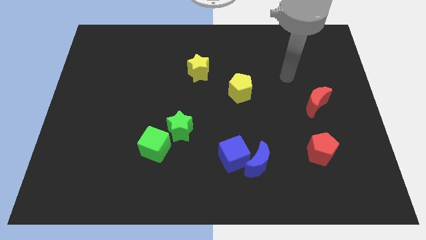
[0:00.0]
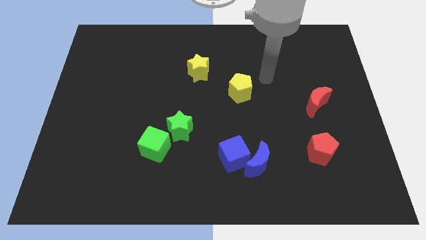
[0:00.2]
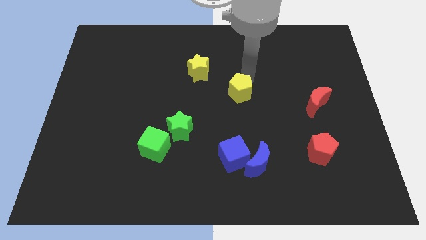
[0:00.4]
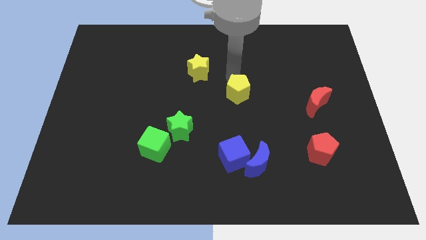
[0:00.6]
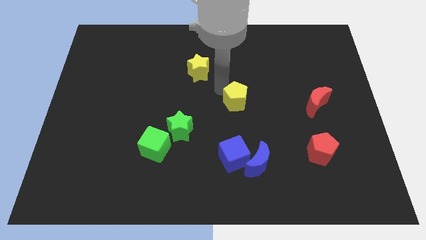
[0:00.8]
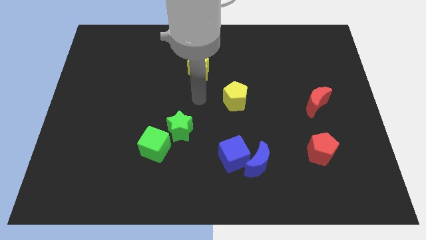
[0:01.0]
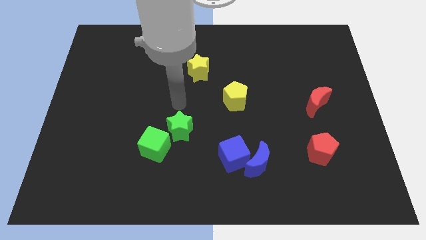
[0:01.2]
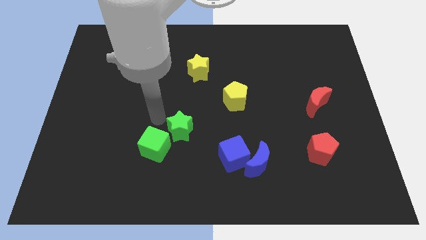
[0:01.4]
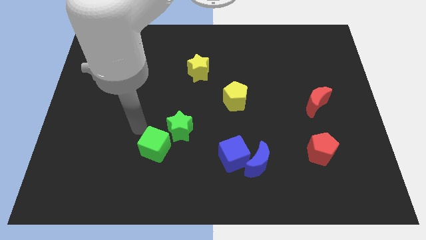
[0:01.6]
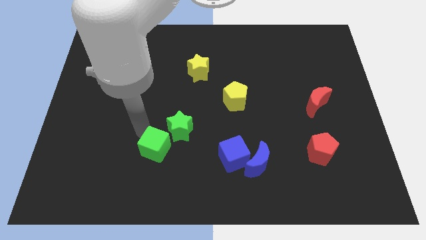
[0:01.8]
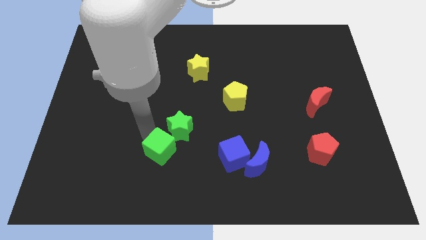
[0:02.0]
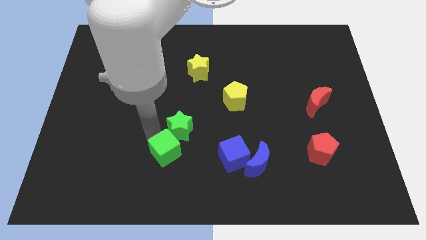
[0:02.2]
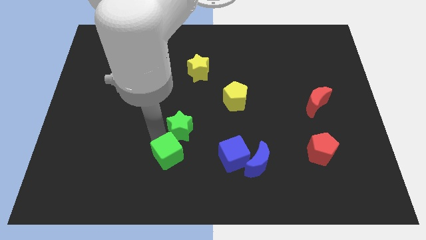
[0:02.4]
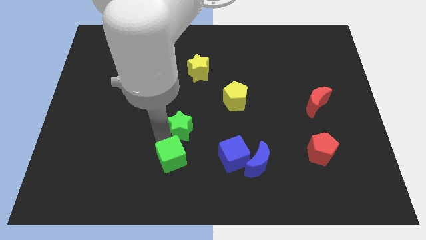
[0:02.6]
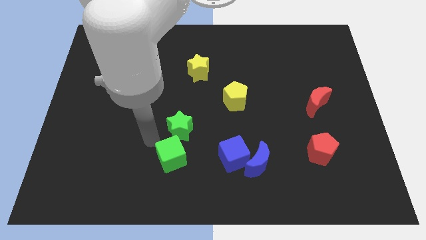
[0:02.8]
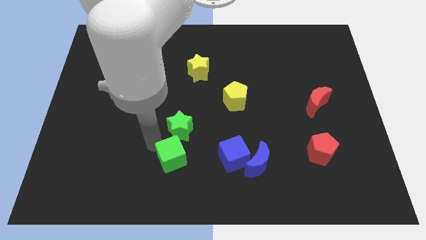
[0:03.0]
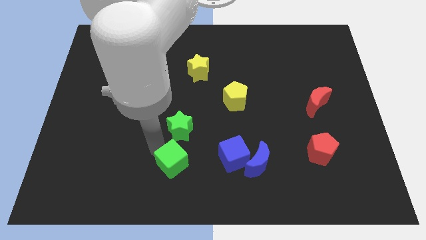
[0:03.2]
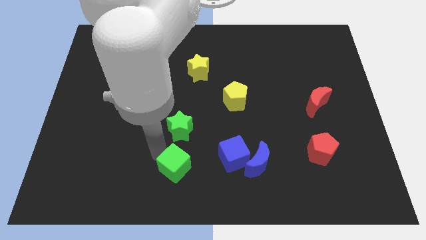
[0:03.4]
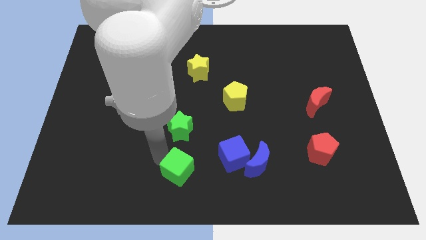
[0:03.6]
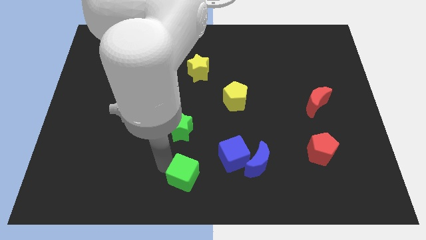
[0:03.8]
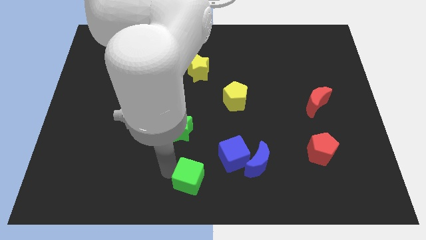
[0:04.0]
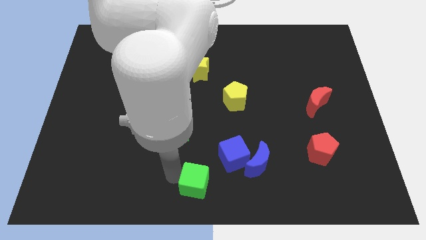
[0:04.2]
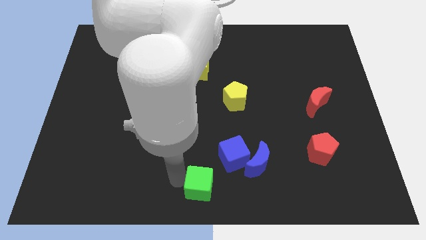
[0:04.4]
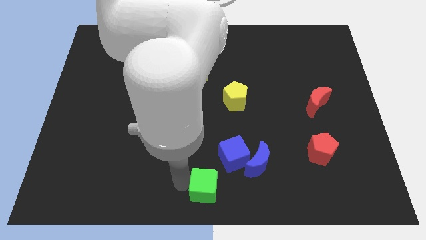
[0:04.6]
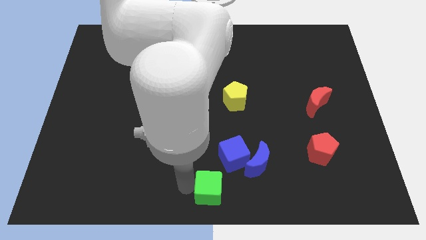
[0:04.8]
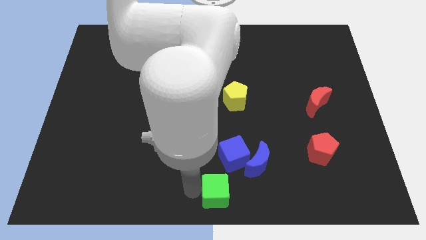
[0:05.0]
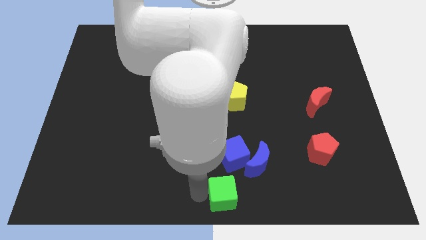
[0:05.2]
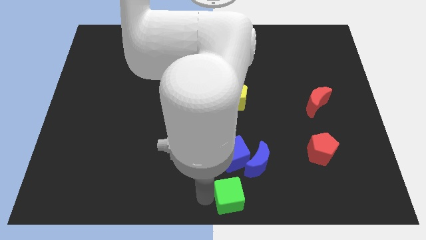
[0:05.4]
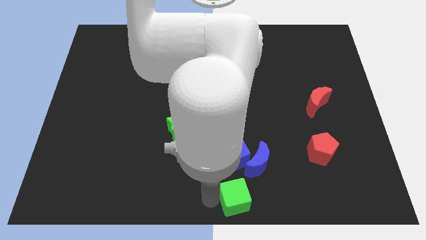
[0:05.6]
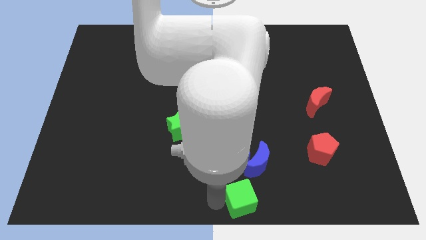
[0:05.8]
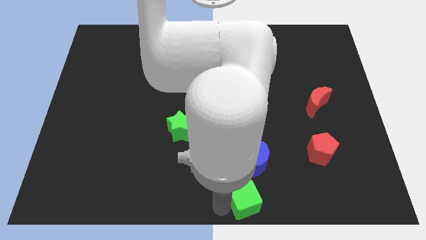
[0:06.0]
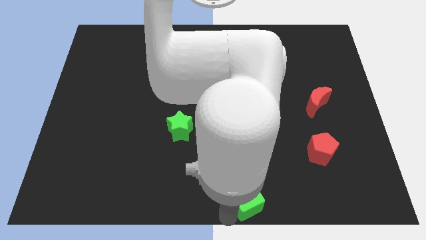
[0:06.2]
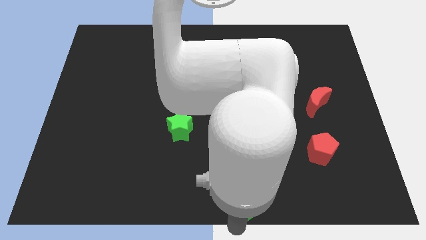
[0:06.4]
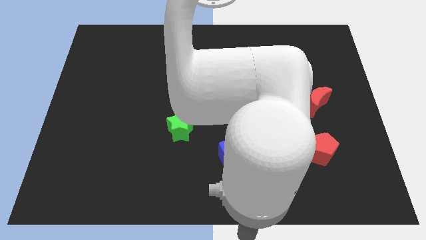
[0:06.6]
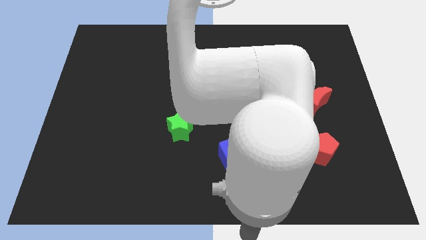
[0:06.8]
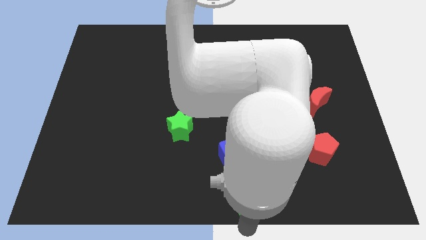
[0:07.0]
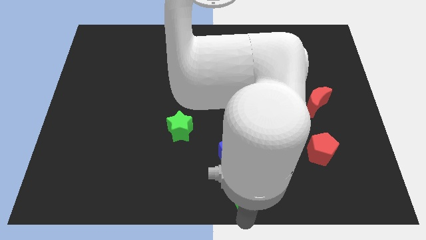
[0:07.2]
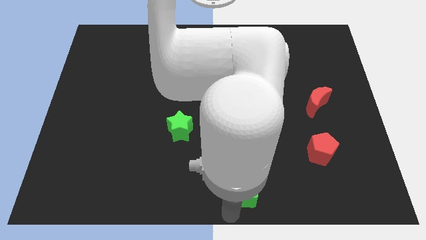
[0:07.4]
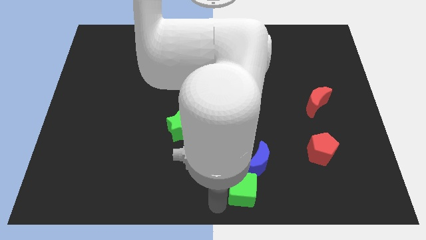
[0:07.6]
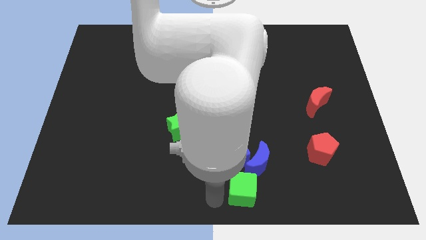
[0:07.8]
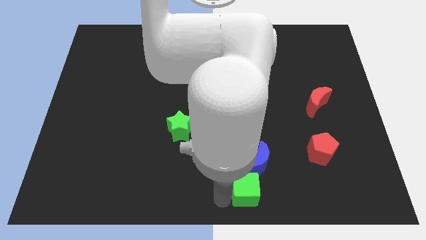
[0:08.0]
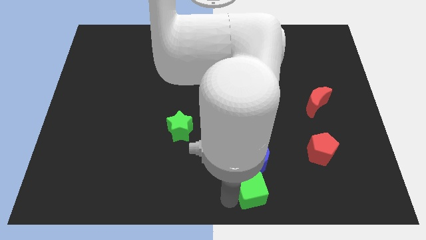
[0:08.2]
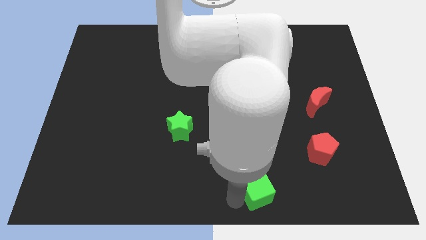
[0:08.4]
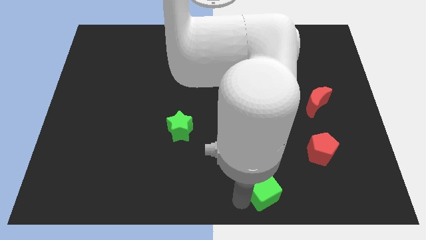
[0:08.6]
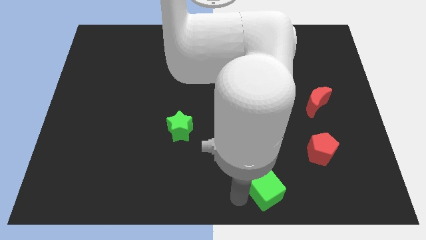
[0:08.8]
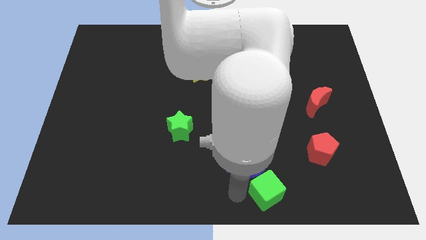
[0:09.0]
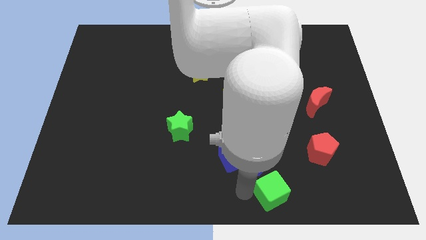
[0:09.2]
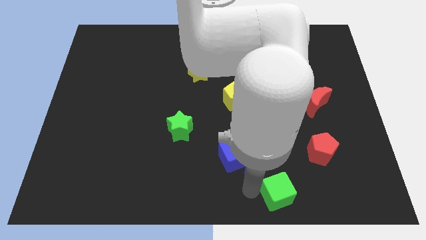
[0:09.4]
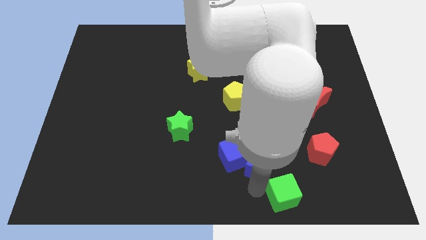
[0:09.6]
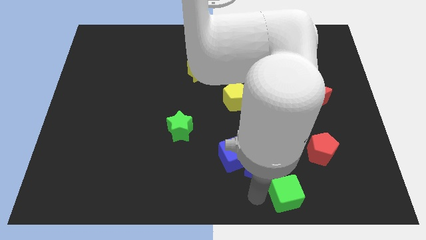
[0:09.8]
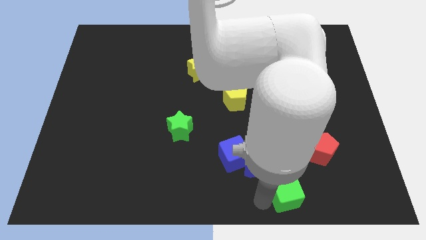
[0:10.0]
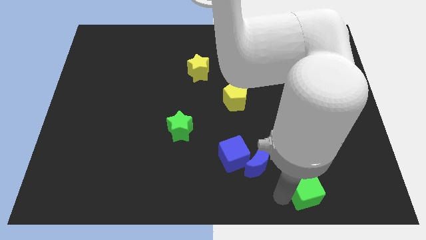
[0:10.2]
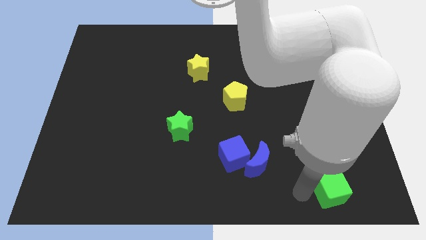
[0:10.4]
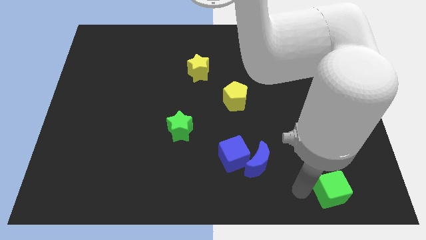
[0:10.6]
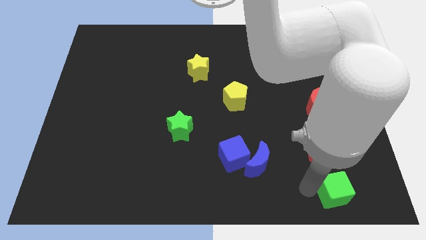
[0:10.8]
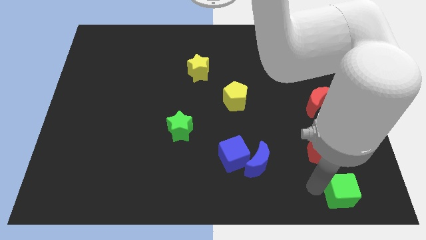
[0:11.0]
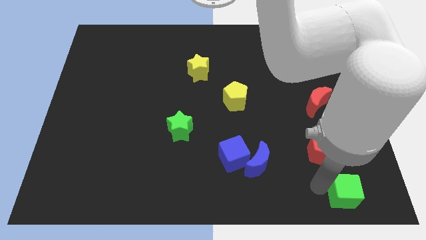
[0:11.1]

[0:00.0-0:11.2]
move the green cube to the bottom right

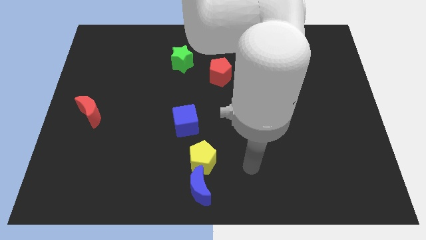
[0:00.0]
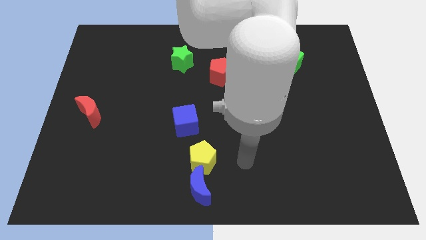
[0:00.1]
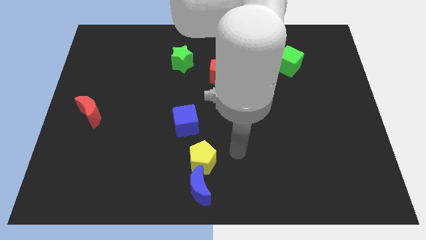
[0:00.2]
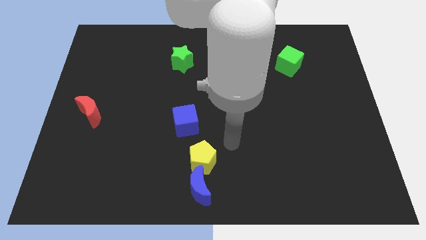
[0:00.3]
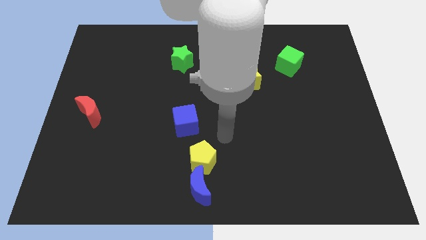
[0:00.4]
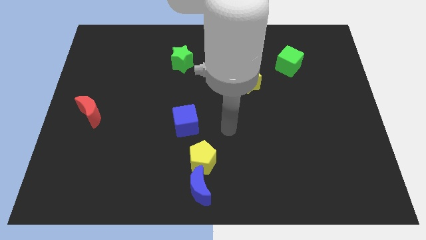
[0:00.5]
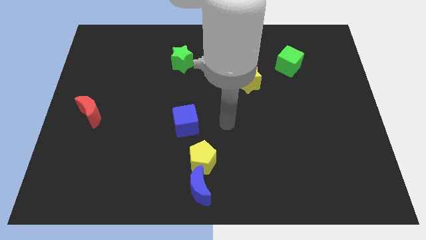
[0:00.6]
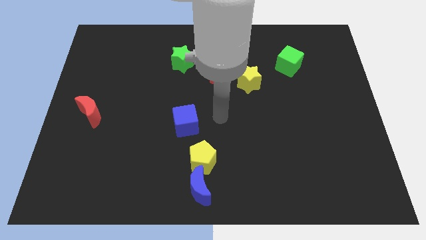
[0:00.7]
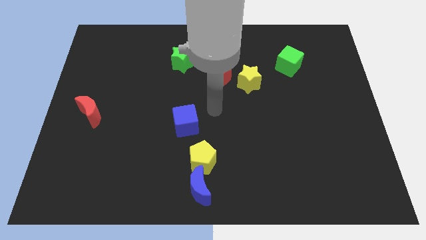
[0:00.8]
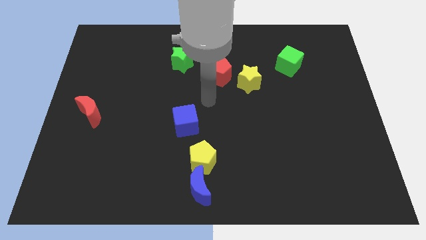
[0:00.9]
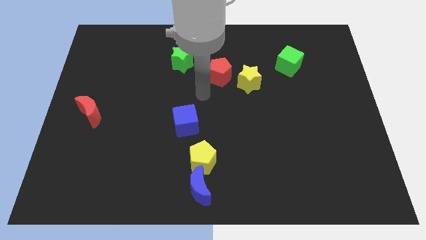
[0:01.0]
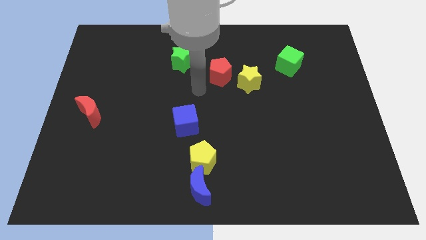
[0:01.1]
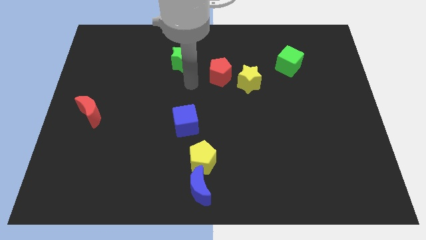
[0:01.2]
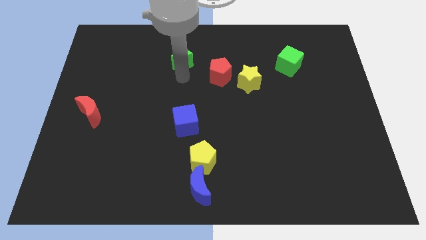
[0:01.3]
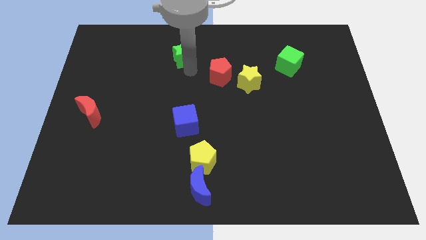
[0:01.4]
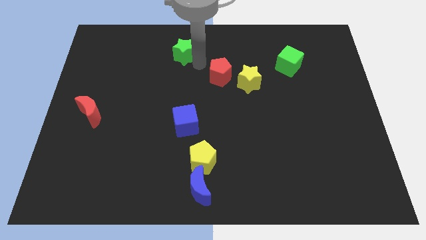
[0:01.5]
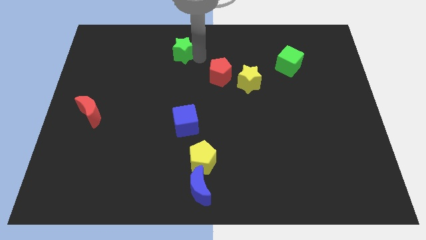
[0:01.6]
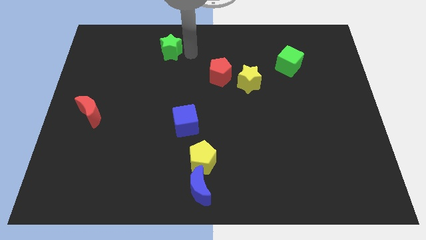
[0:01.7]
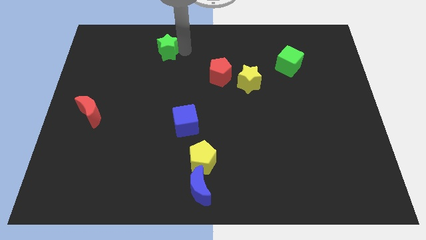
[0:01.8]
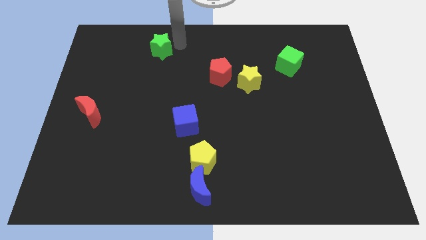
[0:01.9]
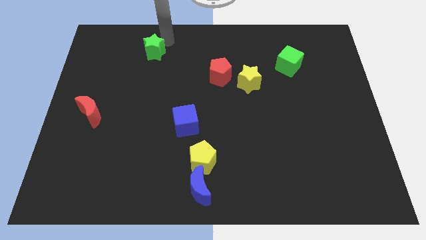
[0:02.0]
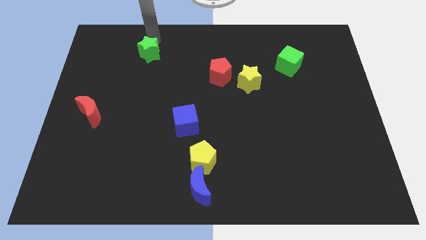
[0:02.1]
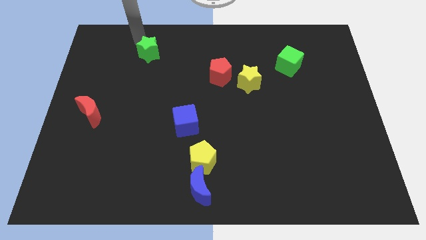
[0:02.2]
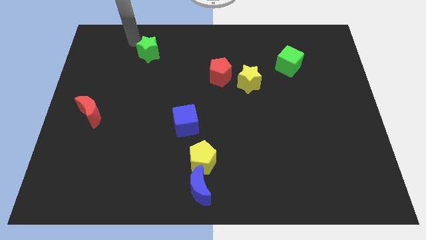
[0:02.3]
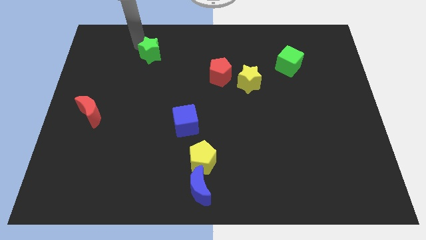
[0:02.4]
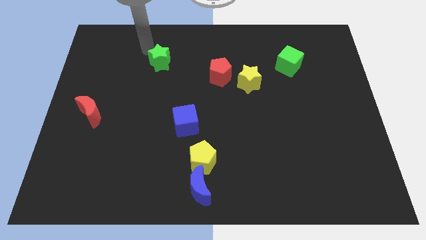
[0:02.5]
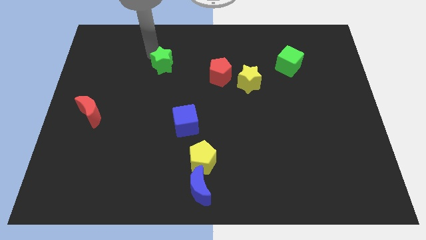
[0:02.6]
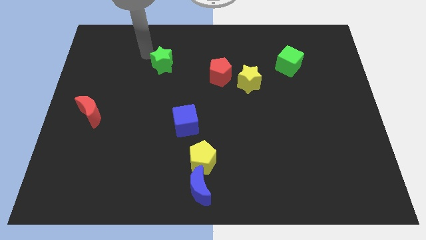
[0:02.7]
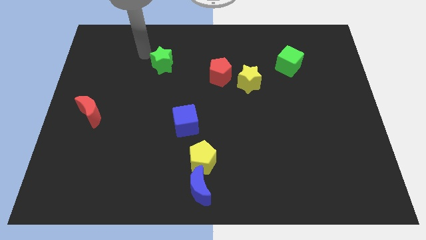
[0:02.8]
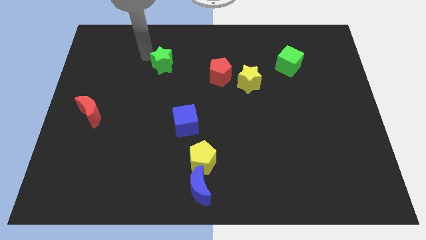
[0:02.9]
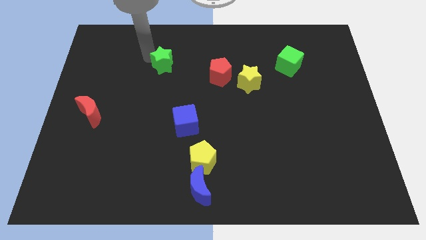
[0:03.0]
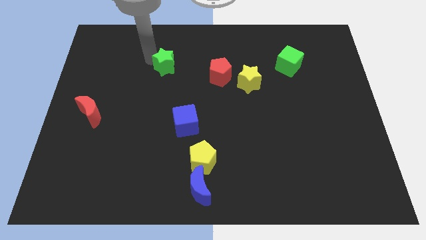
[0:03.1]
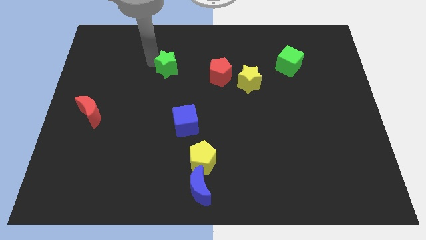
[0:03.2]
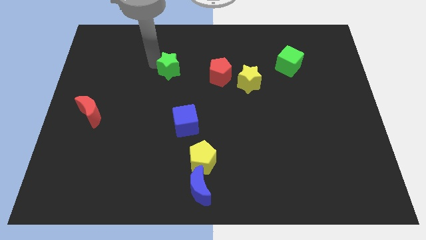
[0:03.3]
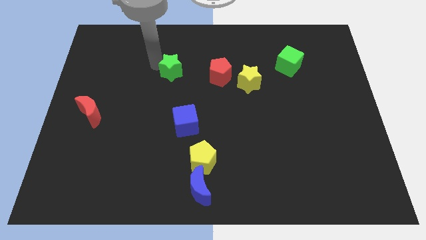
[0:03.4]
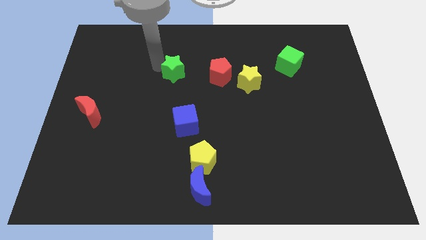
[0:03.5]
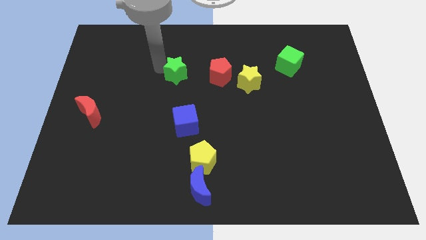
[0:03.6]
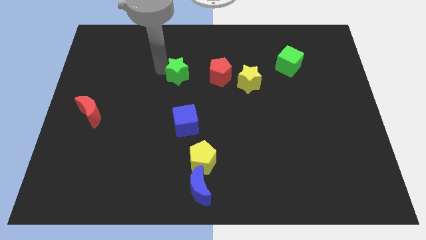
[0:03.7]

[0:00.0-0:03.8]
put the green star to the middle of the board
